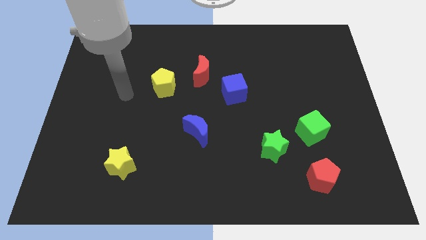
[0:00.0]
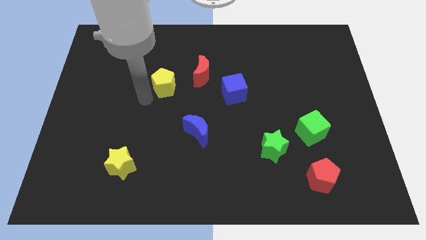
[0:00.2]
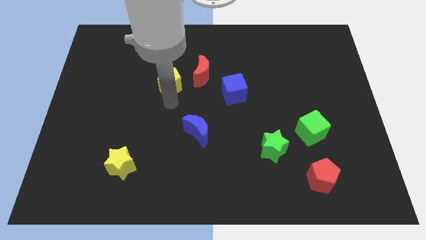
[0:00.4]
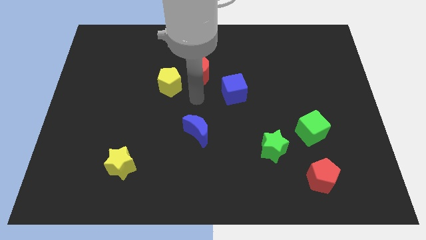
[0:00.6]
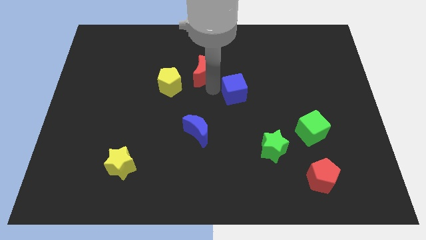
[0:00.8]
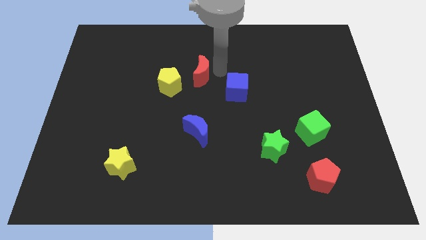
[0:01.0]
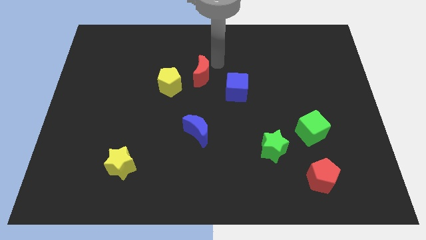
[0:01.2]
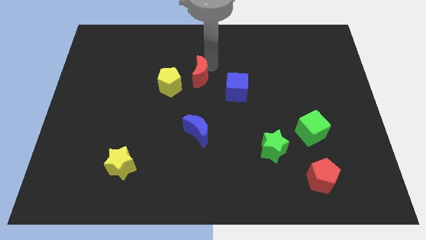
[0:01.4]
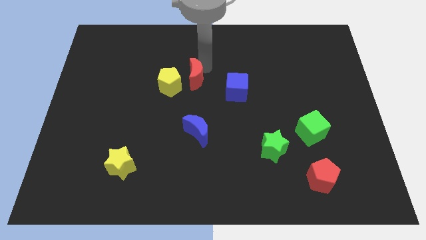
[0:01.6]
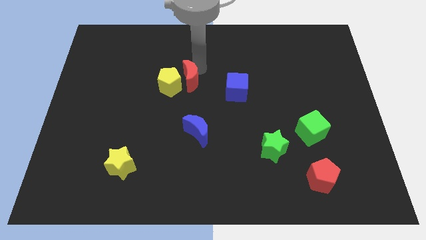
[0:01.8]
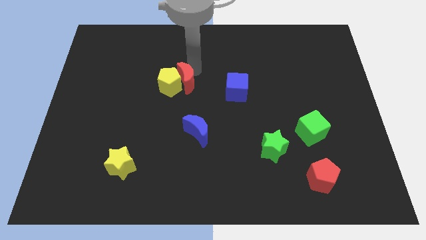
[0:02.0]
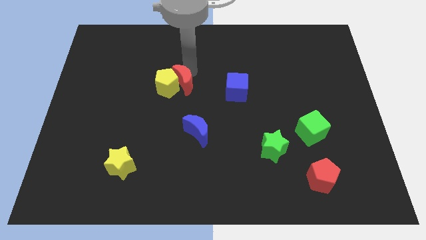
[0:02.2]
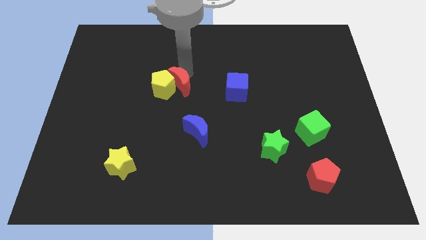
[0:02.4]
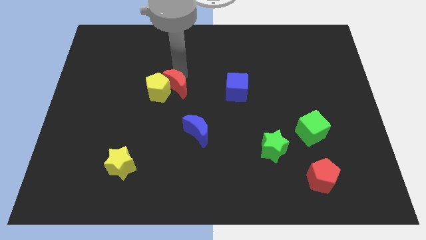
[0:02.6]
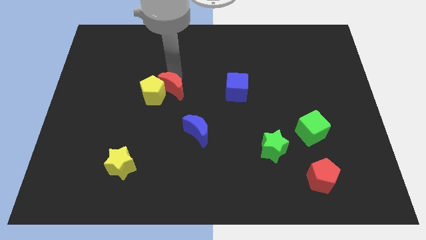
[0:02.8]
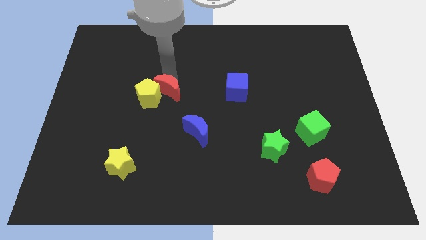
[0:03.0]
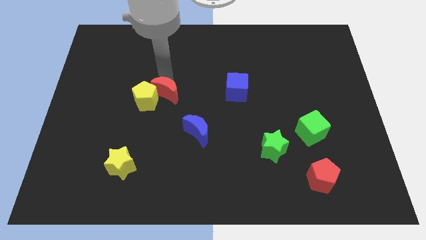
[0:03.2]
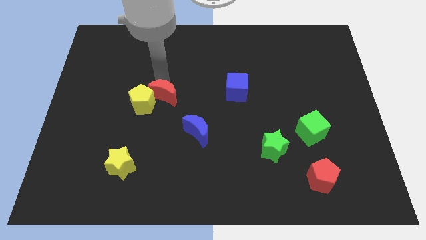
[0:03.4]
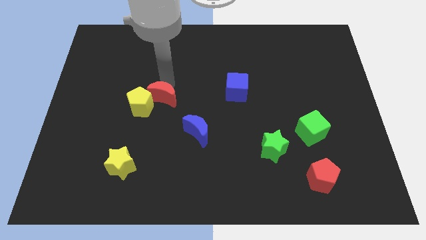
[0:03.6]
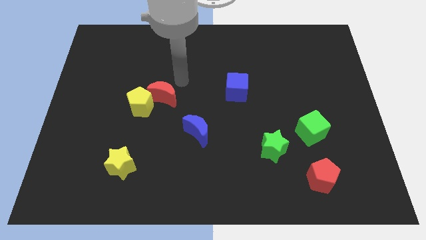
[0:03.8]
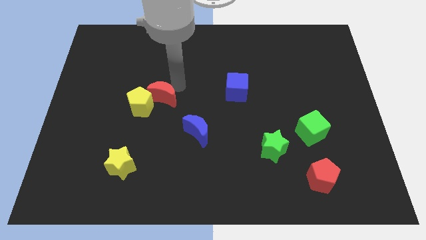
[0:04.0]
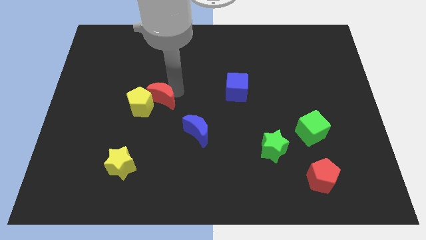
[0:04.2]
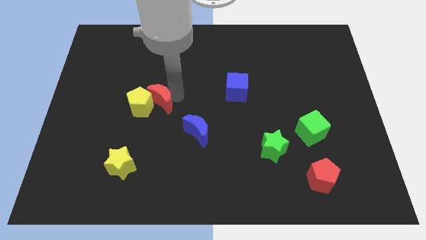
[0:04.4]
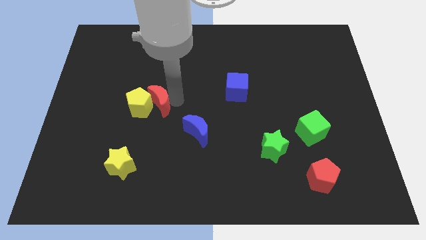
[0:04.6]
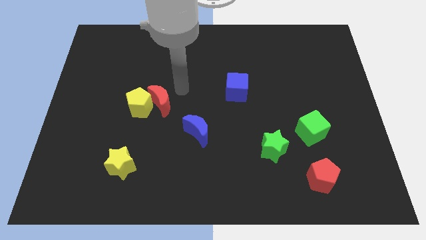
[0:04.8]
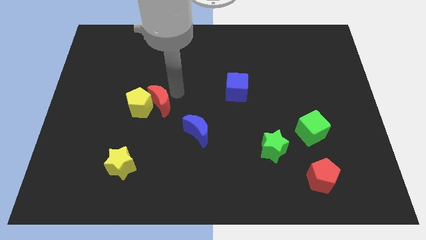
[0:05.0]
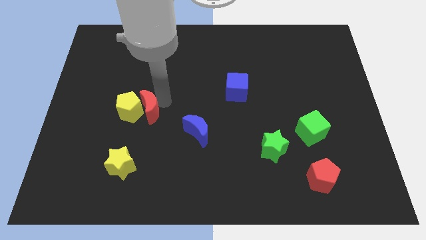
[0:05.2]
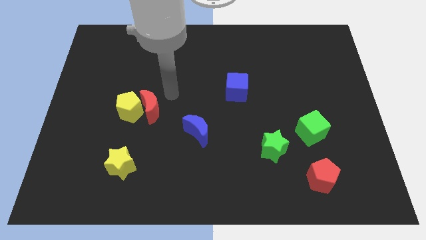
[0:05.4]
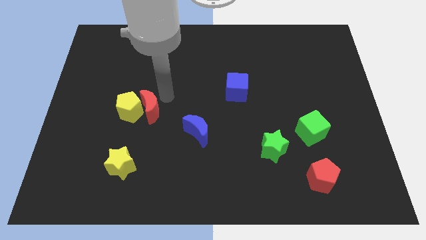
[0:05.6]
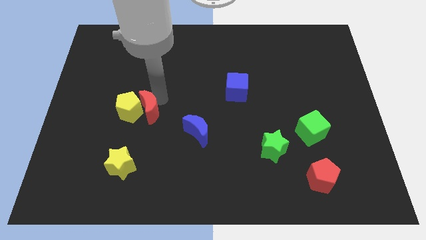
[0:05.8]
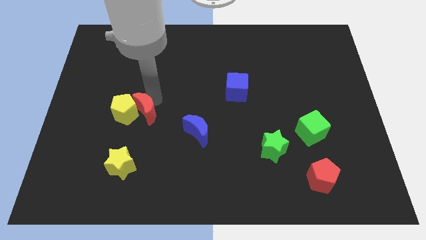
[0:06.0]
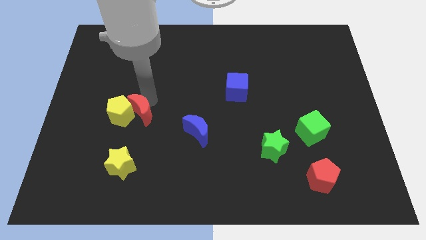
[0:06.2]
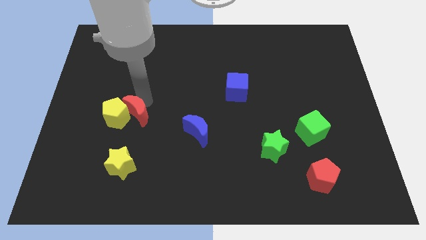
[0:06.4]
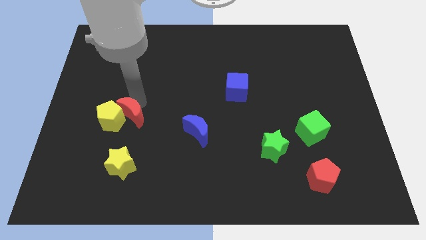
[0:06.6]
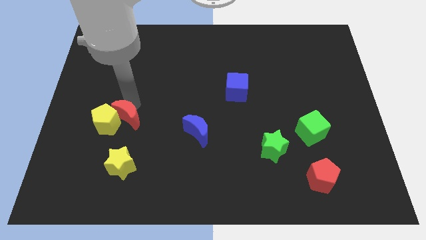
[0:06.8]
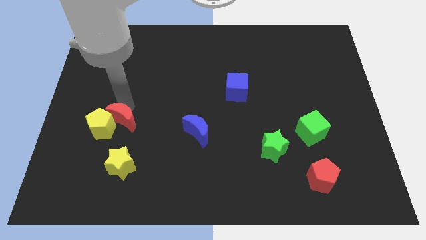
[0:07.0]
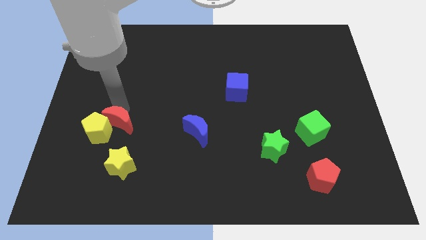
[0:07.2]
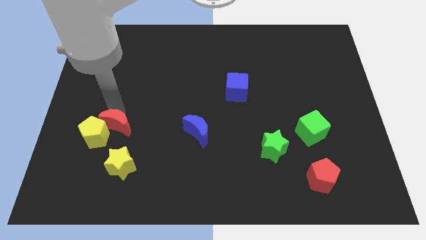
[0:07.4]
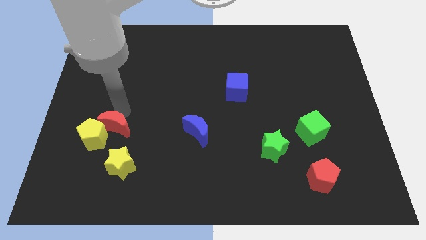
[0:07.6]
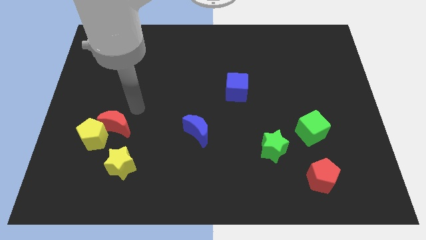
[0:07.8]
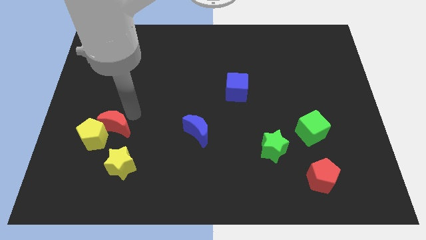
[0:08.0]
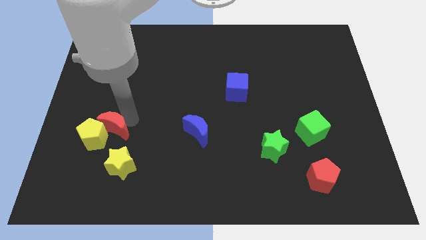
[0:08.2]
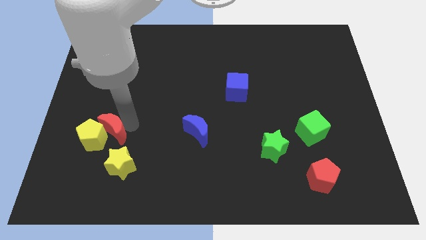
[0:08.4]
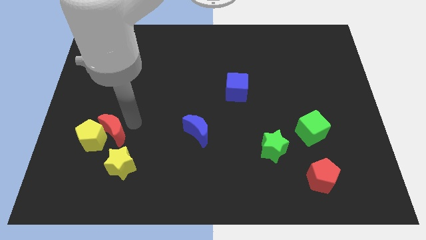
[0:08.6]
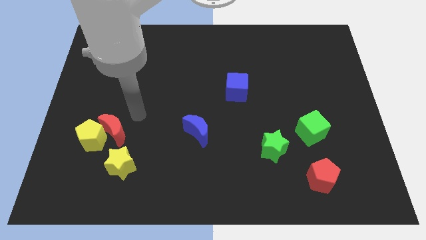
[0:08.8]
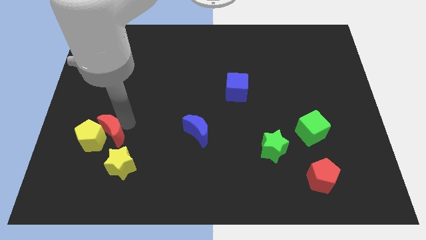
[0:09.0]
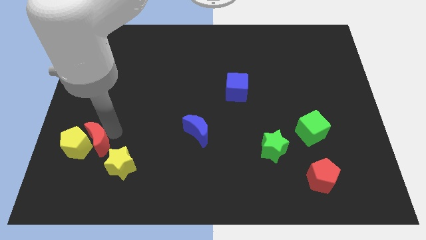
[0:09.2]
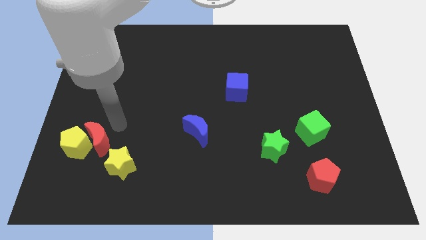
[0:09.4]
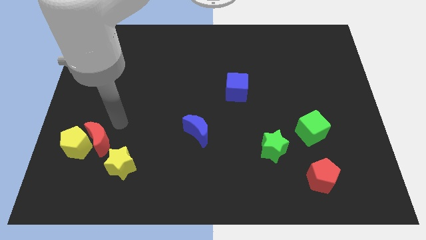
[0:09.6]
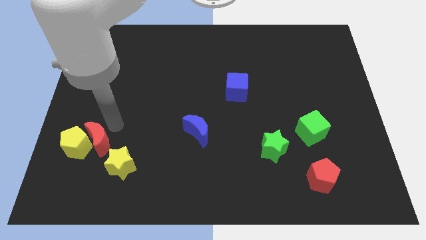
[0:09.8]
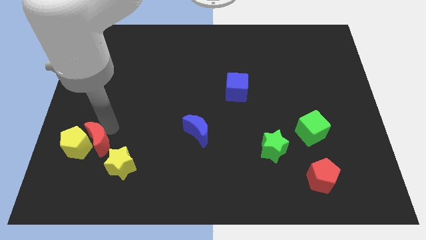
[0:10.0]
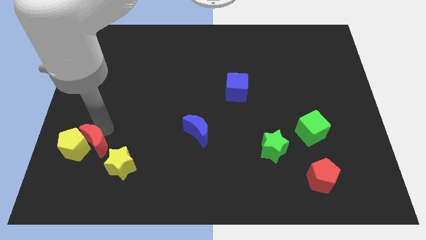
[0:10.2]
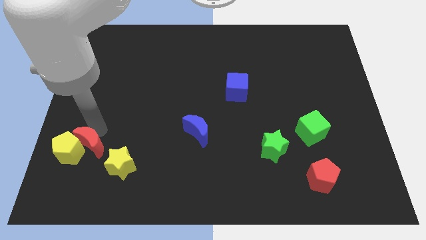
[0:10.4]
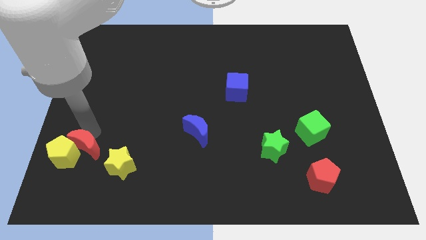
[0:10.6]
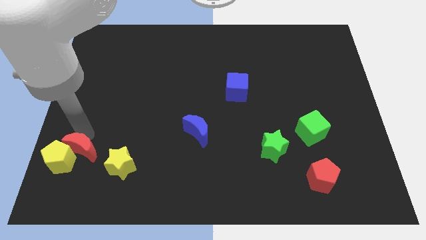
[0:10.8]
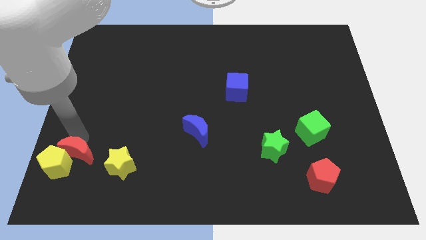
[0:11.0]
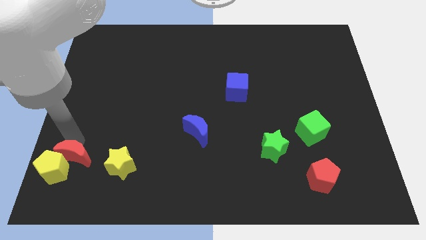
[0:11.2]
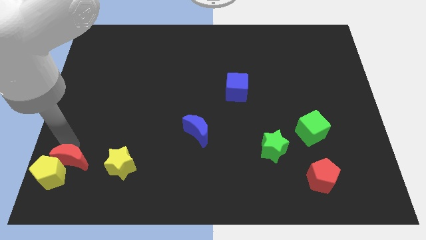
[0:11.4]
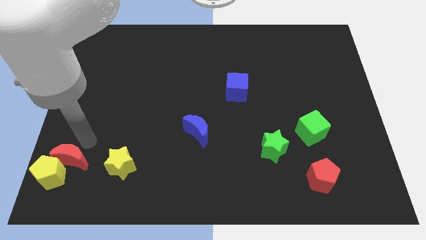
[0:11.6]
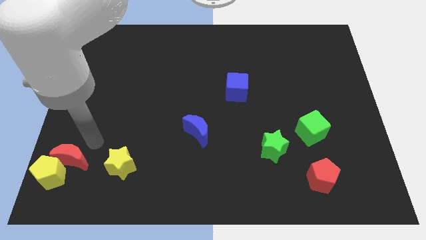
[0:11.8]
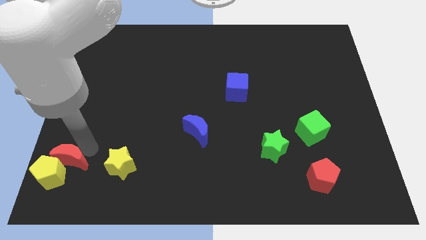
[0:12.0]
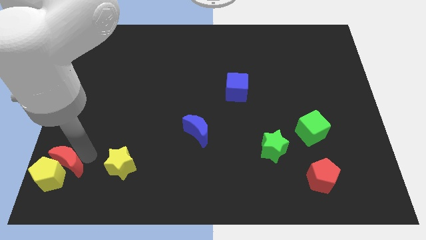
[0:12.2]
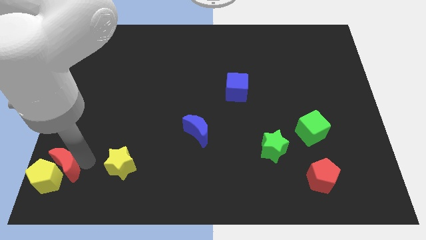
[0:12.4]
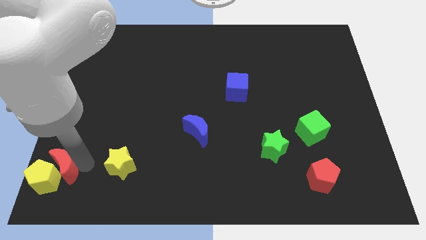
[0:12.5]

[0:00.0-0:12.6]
put the red moon to the bottom left
